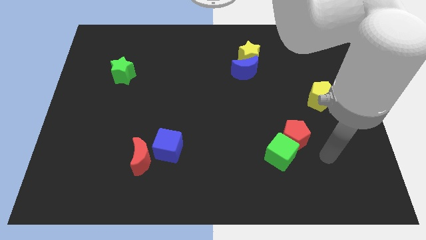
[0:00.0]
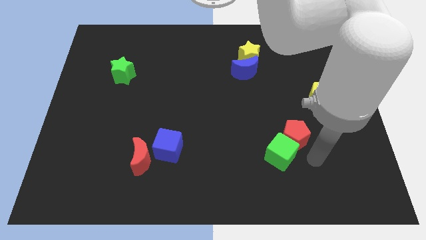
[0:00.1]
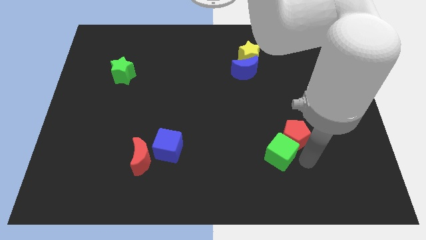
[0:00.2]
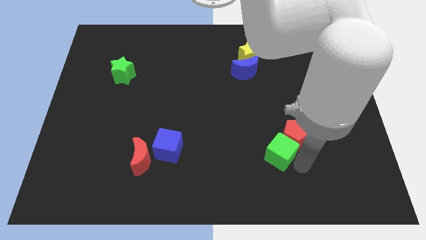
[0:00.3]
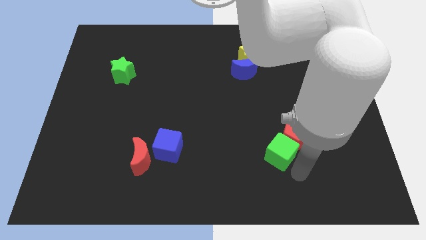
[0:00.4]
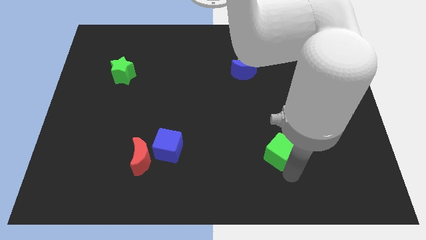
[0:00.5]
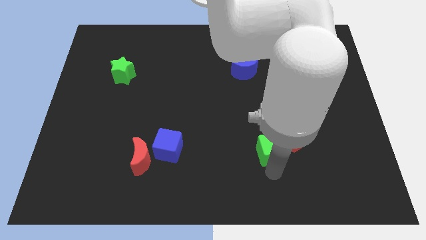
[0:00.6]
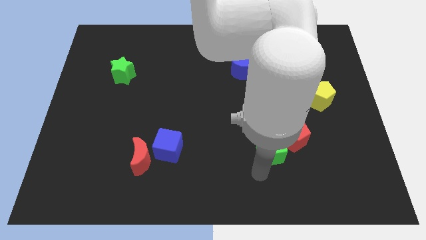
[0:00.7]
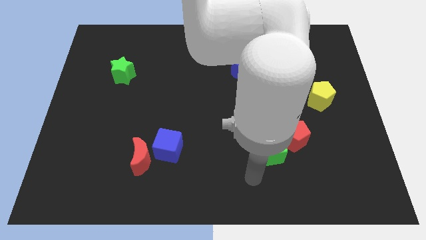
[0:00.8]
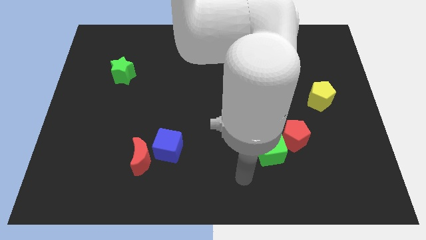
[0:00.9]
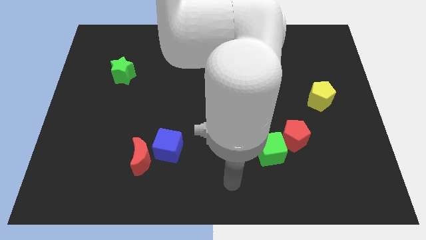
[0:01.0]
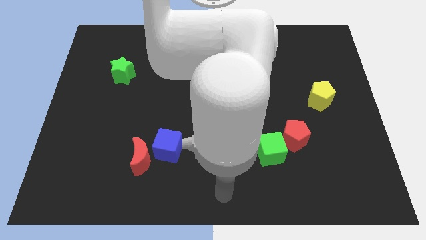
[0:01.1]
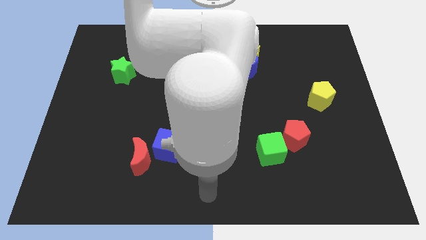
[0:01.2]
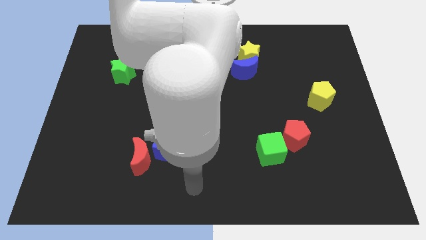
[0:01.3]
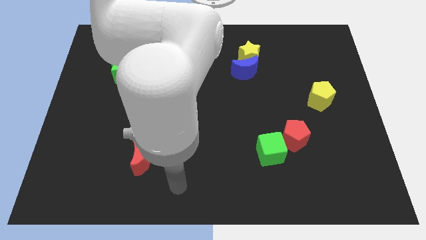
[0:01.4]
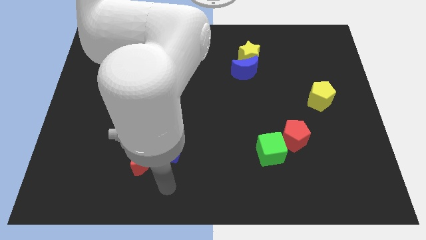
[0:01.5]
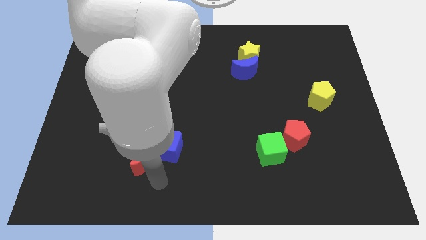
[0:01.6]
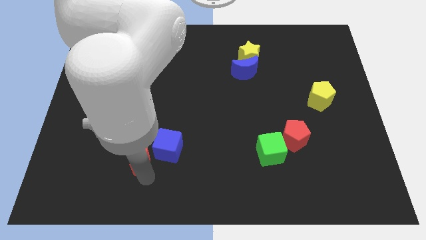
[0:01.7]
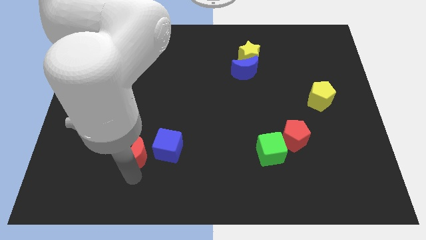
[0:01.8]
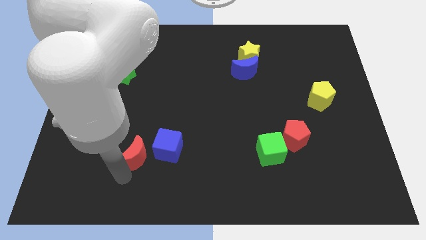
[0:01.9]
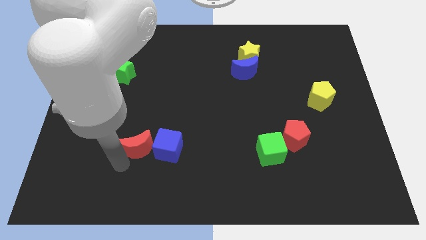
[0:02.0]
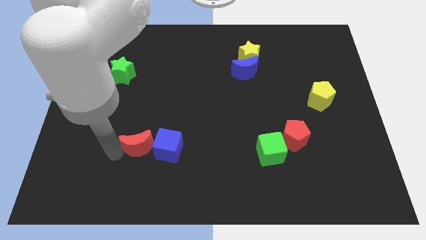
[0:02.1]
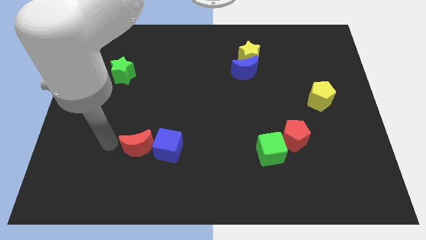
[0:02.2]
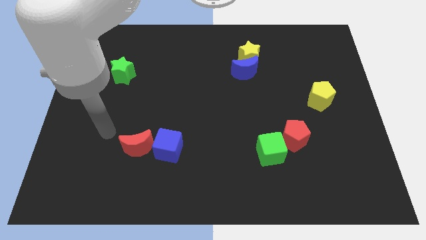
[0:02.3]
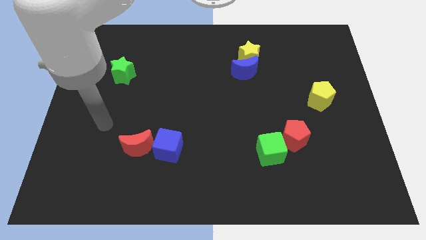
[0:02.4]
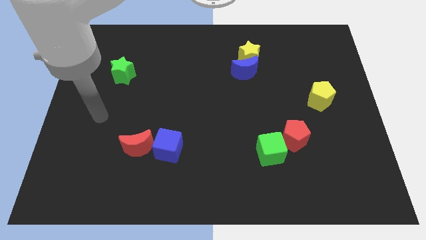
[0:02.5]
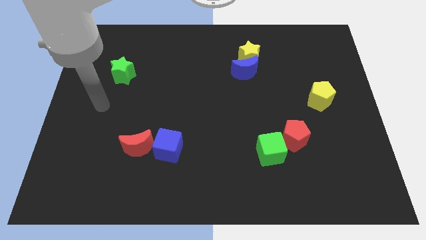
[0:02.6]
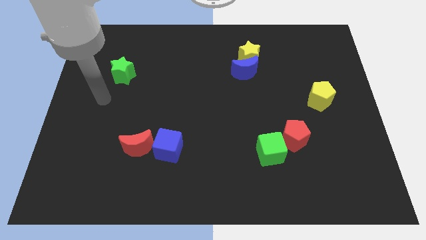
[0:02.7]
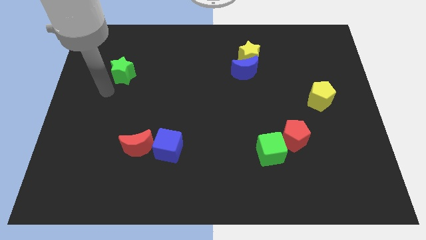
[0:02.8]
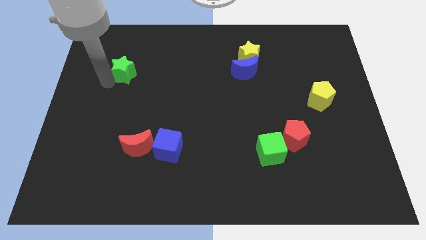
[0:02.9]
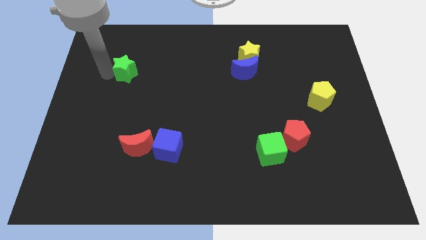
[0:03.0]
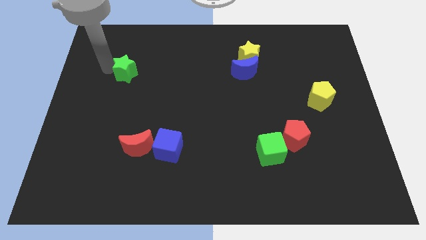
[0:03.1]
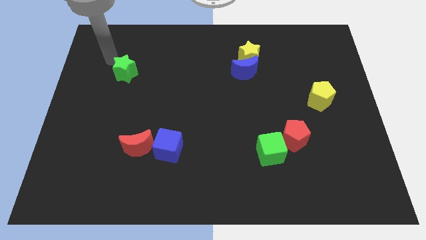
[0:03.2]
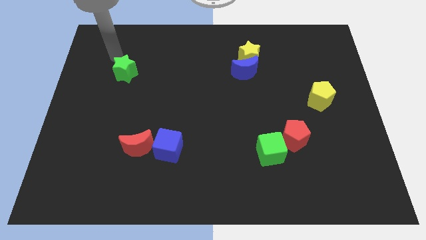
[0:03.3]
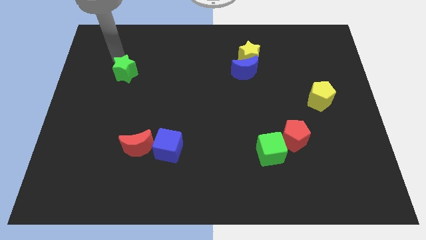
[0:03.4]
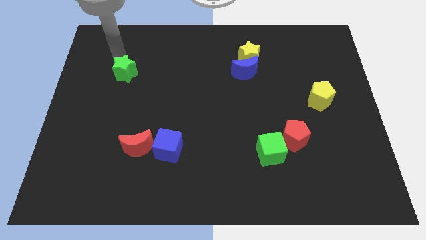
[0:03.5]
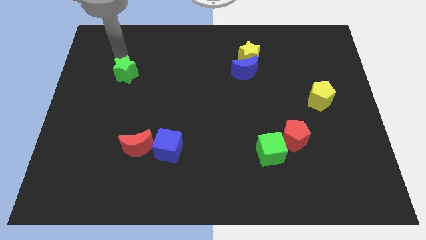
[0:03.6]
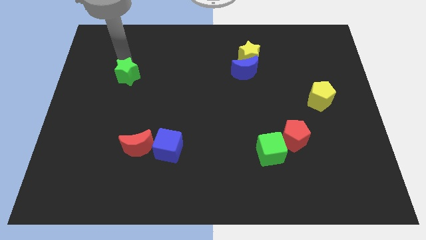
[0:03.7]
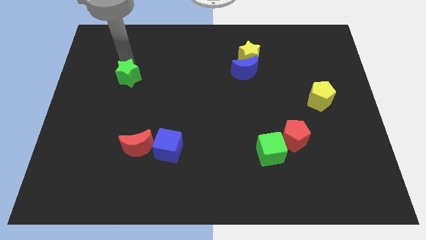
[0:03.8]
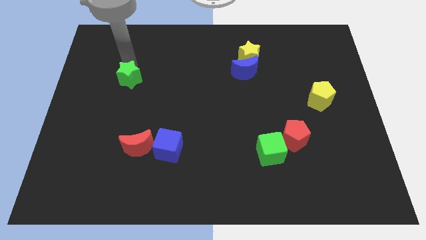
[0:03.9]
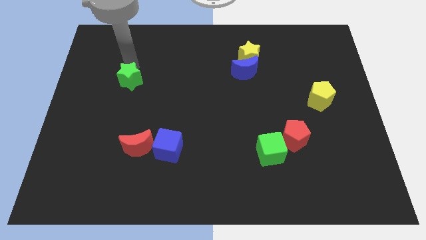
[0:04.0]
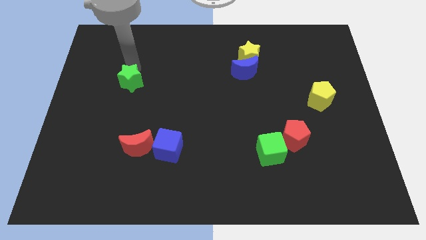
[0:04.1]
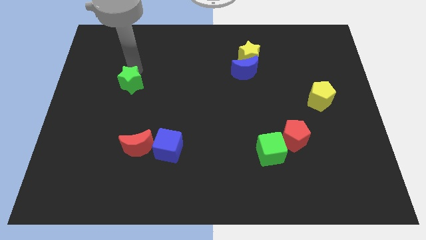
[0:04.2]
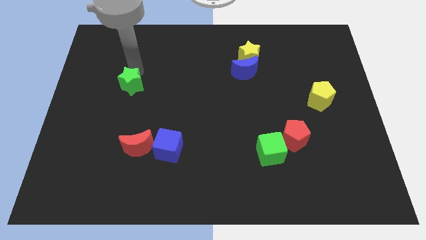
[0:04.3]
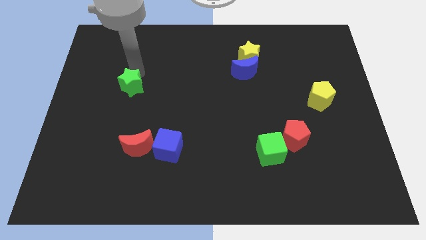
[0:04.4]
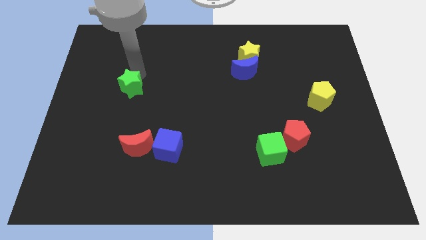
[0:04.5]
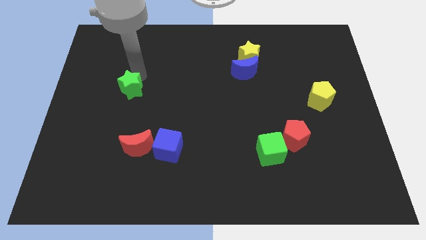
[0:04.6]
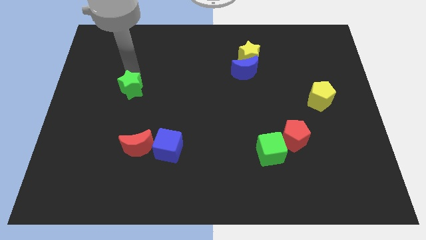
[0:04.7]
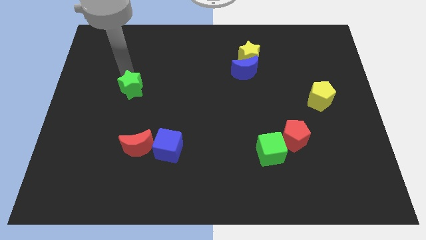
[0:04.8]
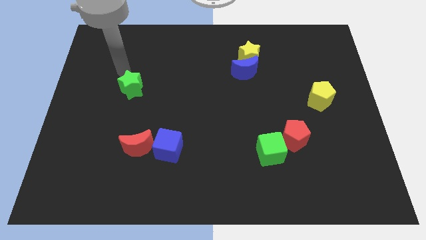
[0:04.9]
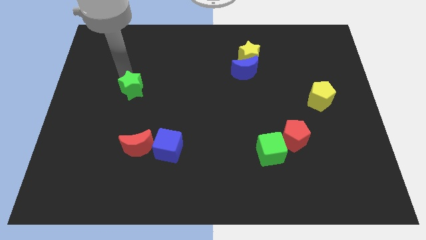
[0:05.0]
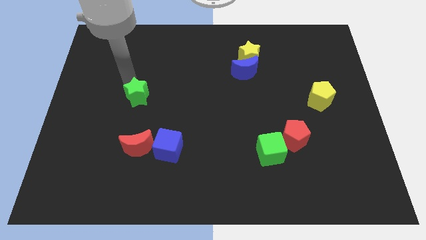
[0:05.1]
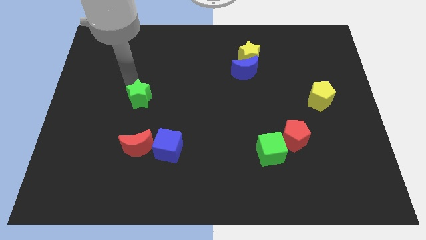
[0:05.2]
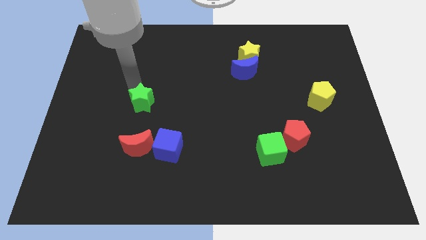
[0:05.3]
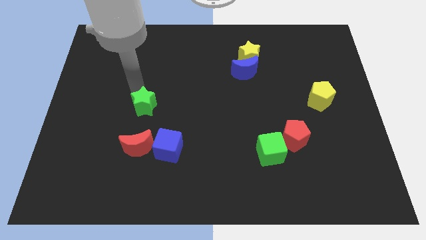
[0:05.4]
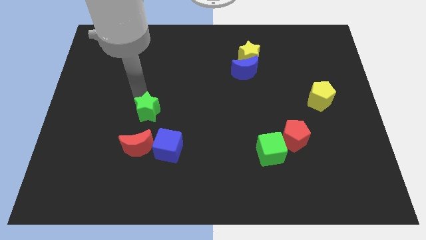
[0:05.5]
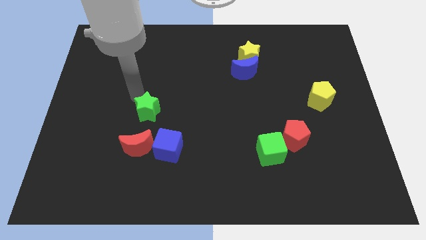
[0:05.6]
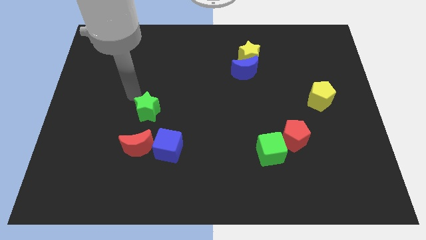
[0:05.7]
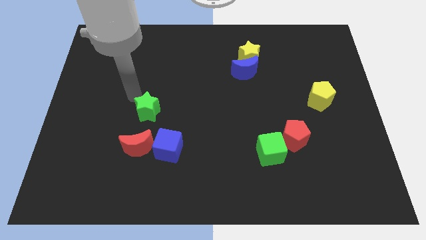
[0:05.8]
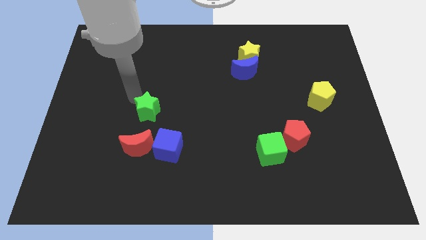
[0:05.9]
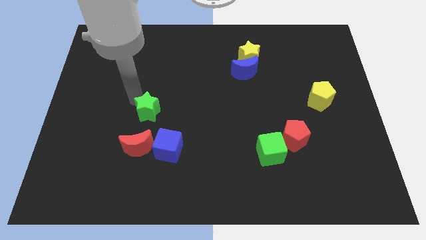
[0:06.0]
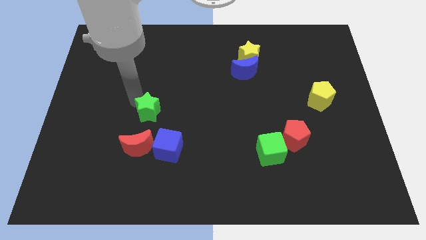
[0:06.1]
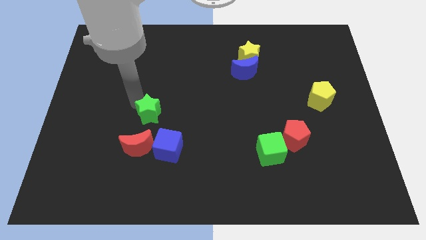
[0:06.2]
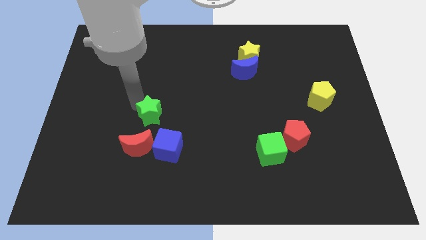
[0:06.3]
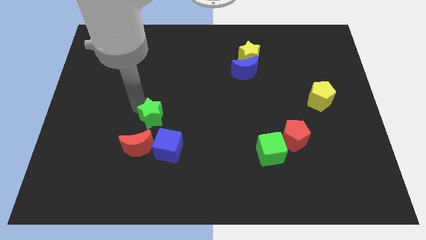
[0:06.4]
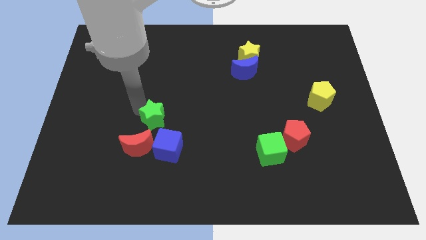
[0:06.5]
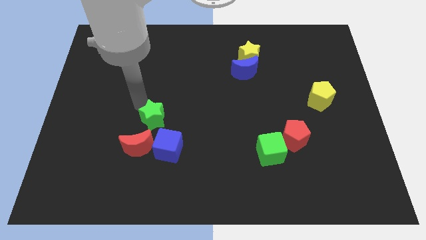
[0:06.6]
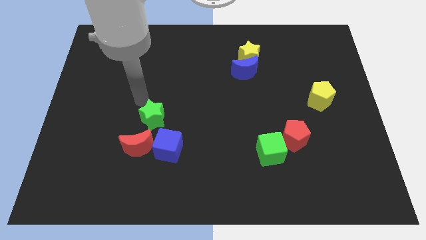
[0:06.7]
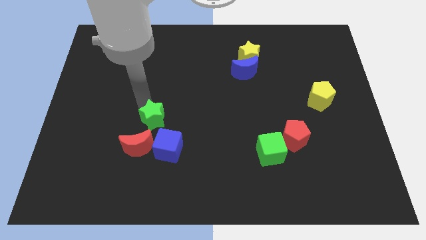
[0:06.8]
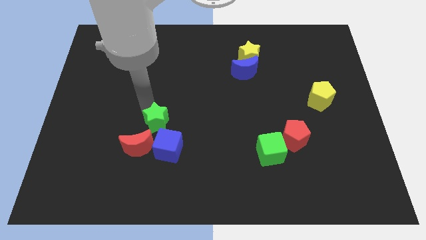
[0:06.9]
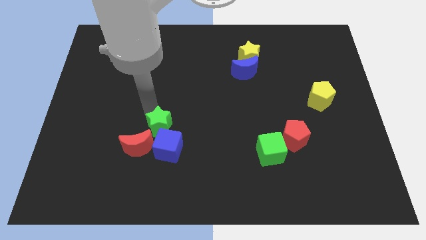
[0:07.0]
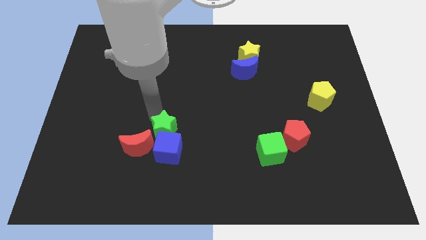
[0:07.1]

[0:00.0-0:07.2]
push the green star close to the blue cube

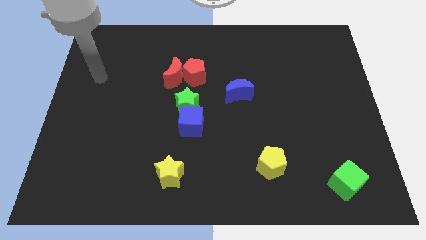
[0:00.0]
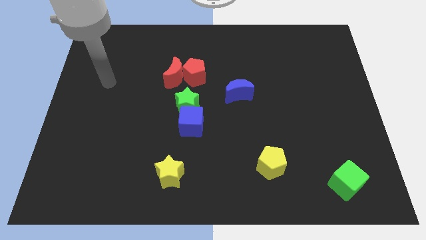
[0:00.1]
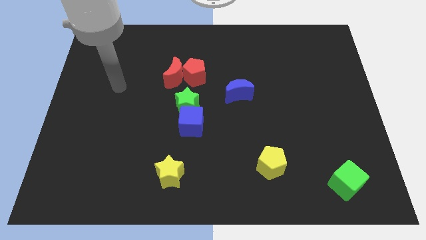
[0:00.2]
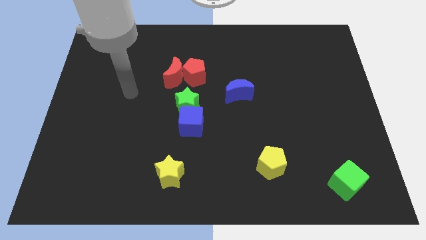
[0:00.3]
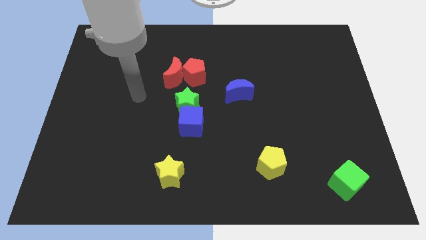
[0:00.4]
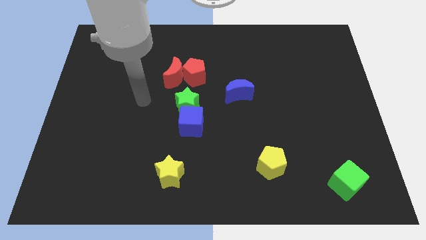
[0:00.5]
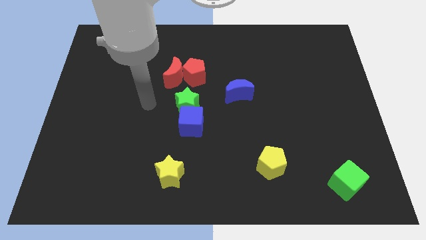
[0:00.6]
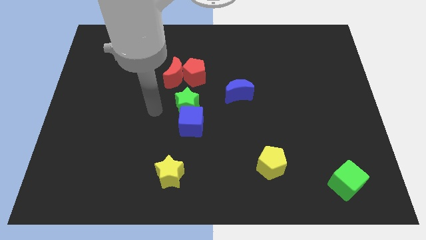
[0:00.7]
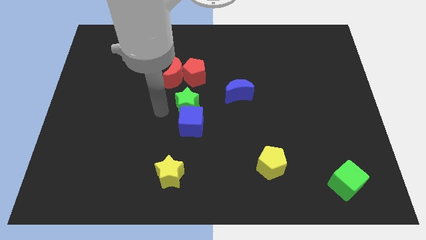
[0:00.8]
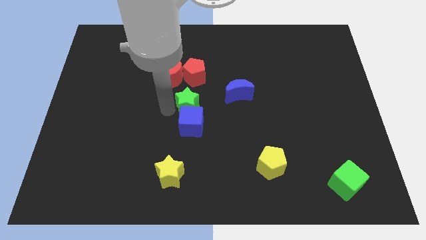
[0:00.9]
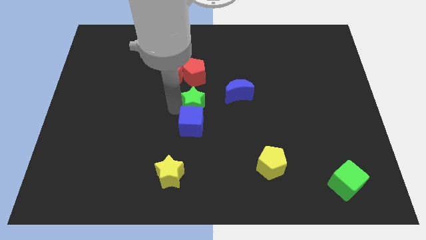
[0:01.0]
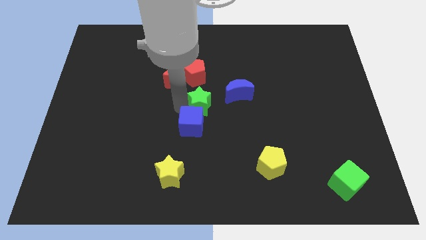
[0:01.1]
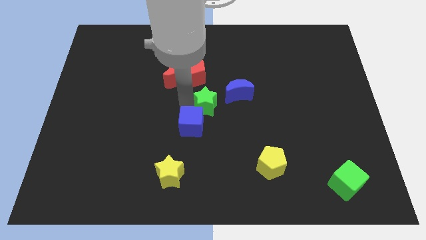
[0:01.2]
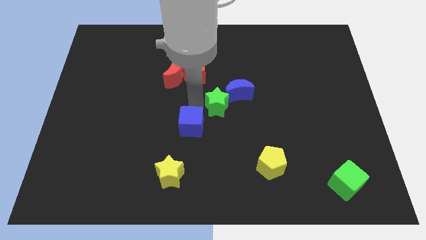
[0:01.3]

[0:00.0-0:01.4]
slide the green star to the blue moon
